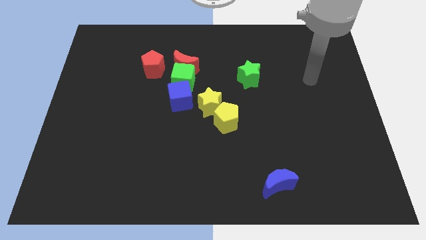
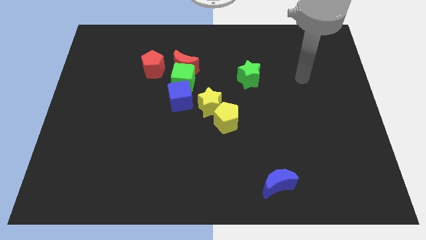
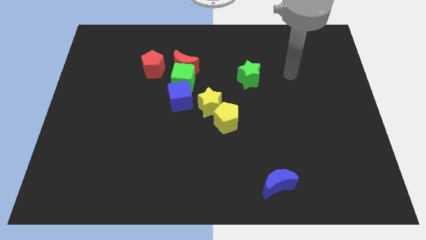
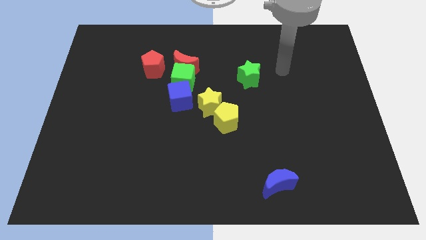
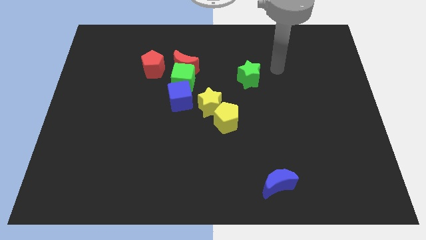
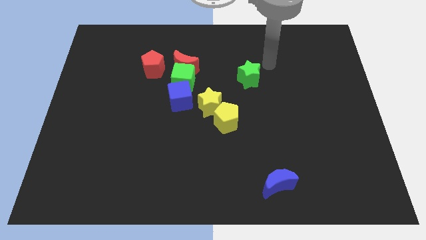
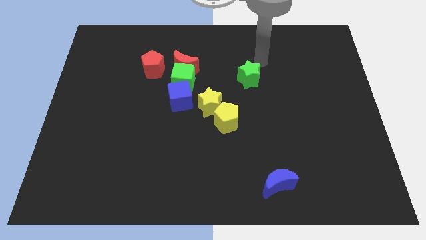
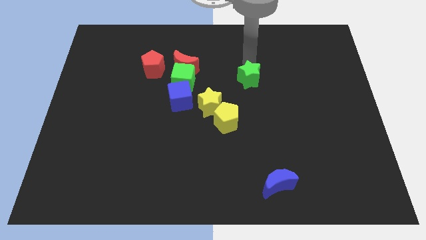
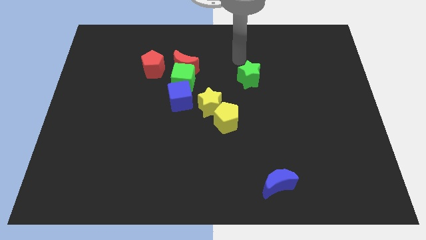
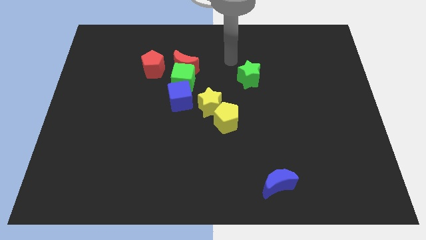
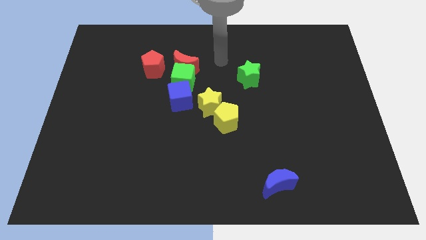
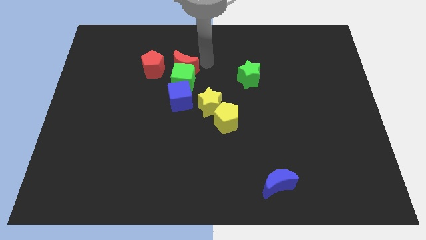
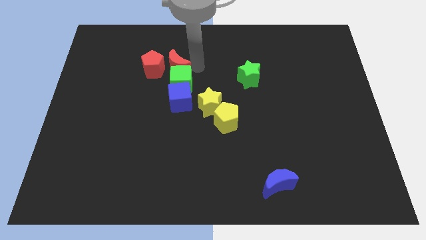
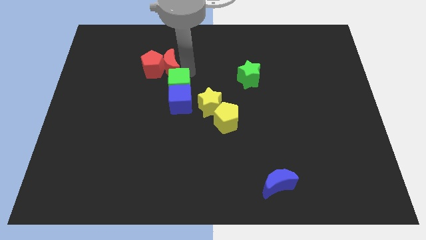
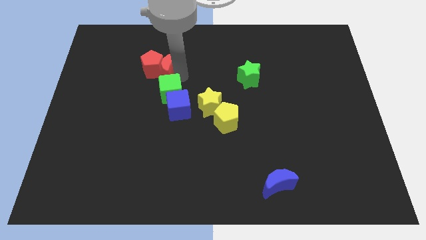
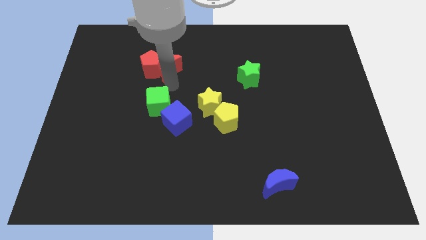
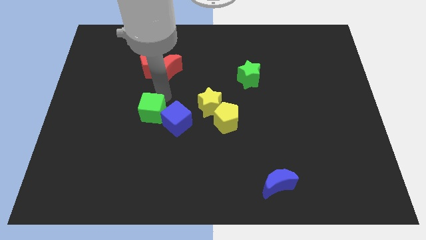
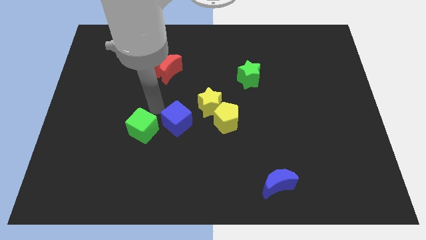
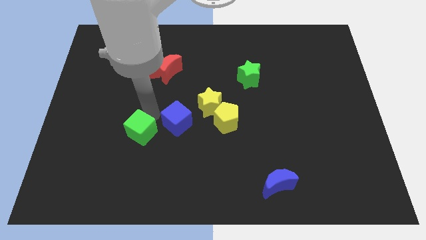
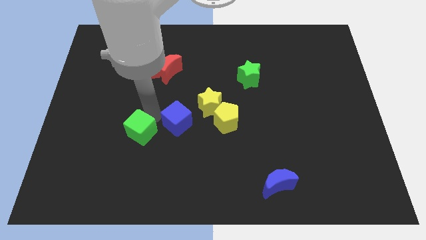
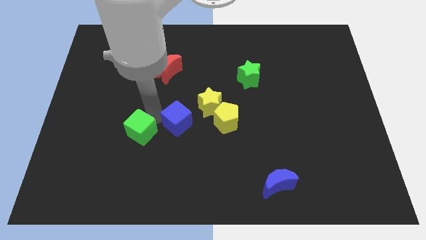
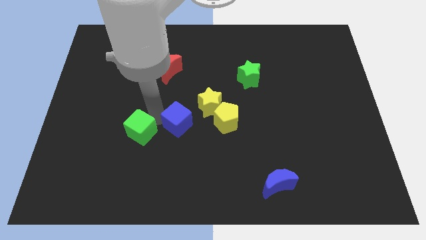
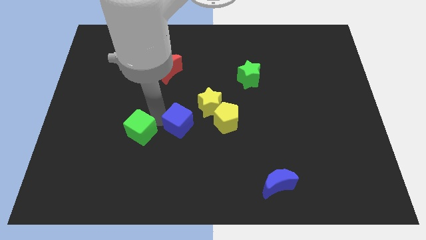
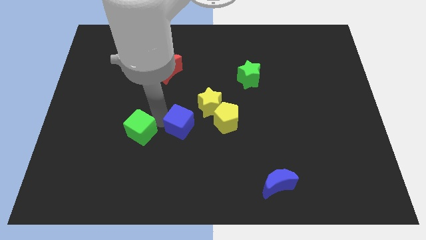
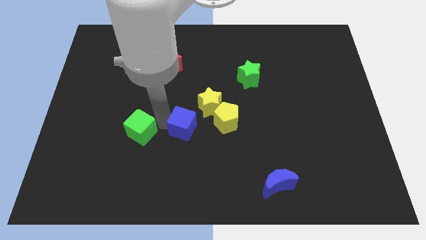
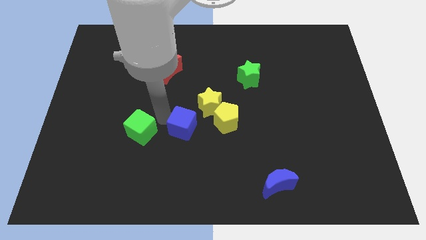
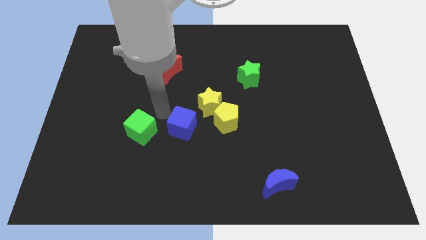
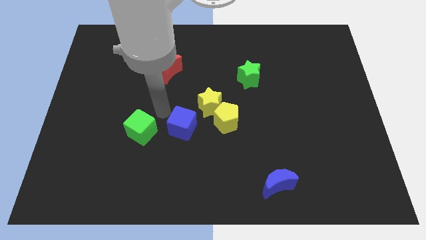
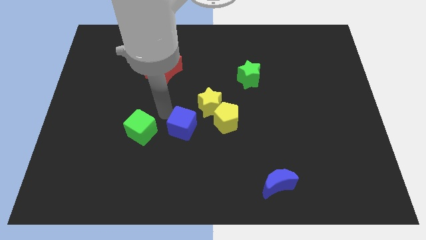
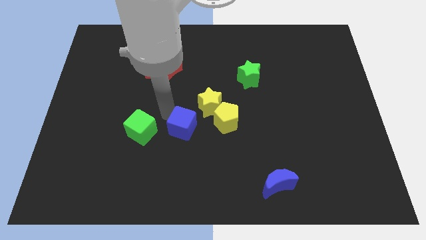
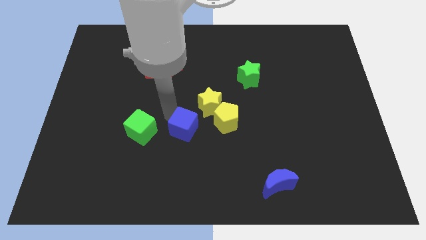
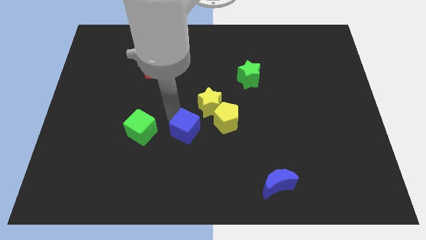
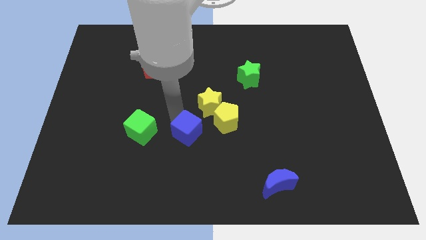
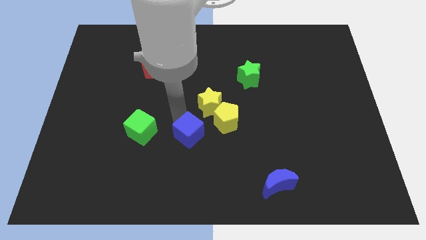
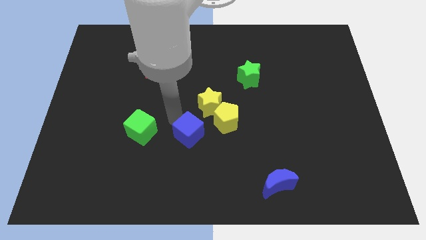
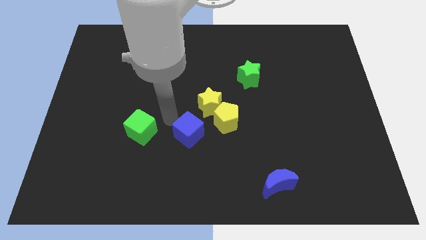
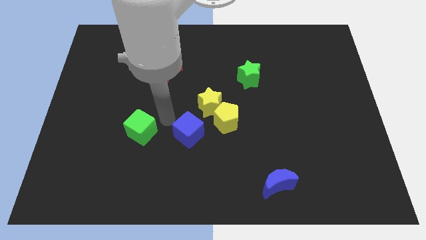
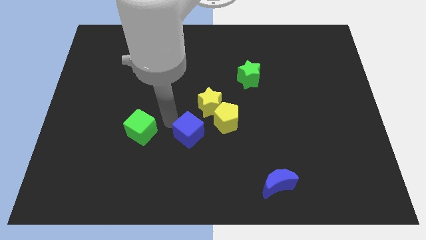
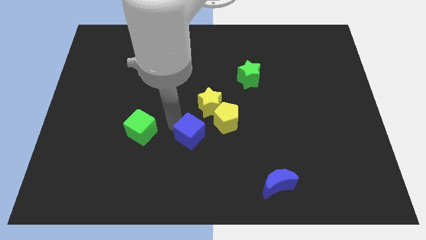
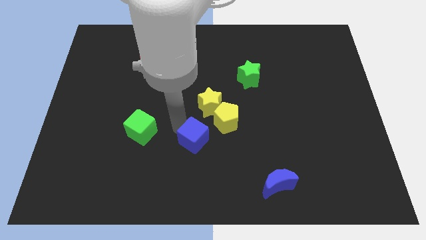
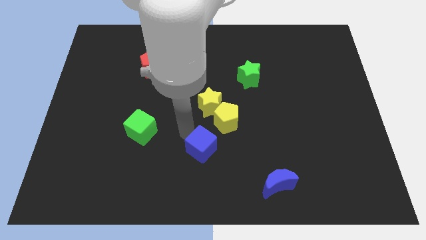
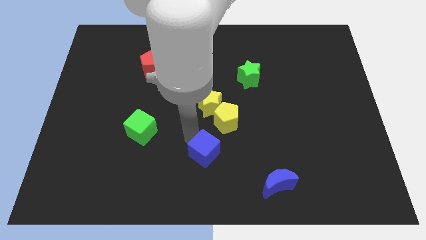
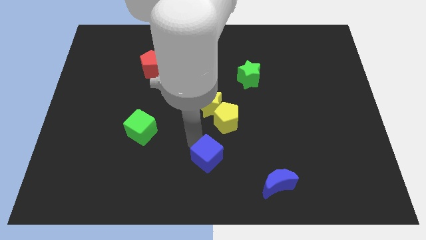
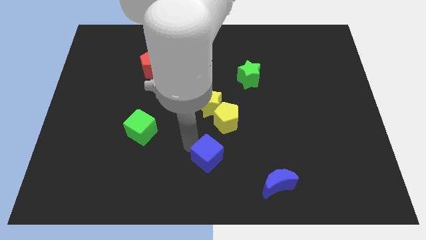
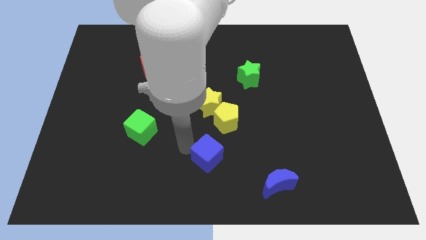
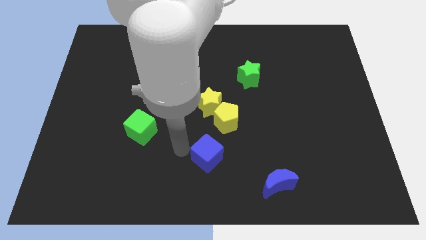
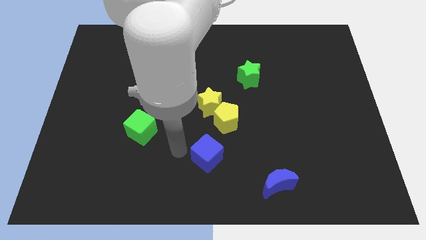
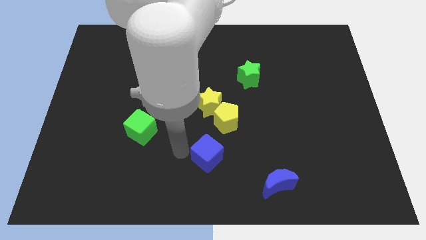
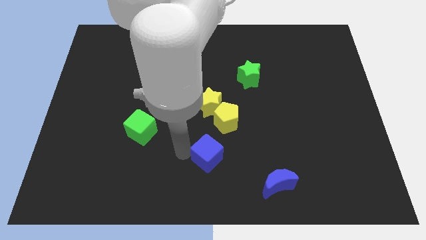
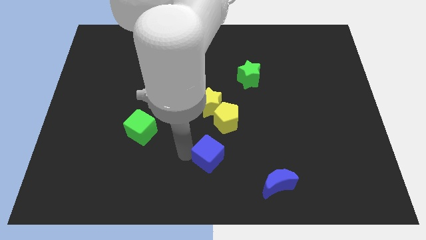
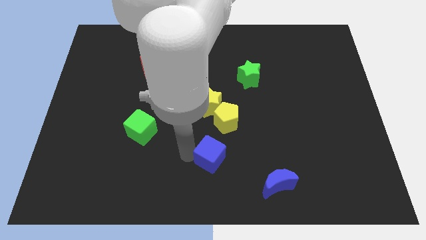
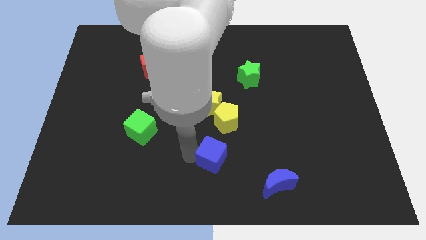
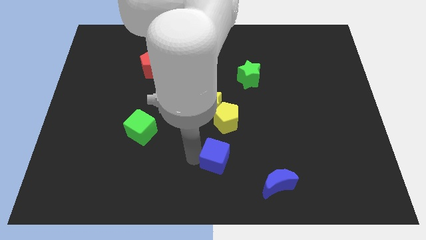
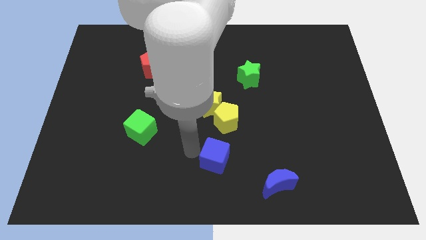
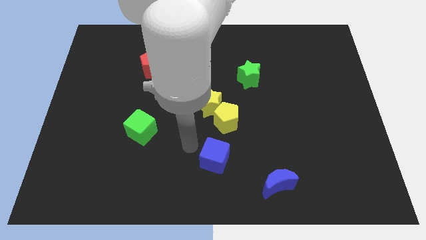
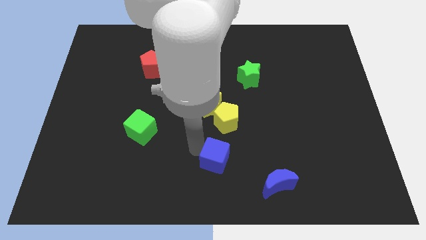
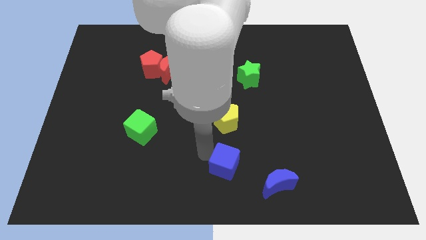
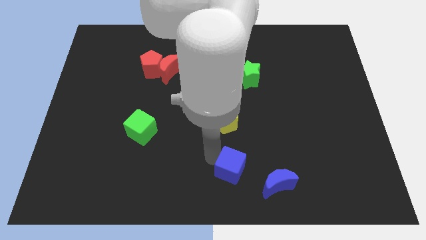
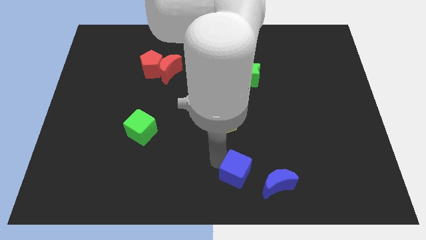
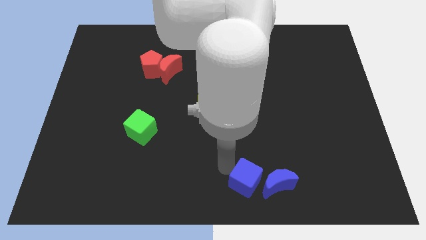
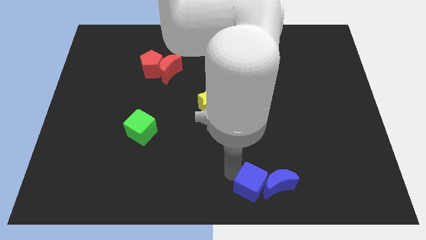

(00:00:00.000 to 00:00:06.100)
push the blue cube next to the blue moon

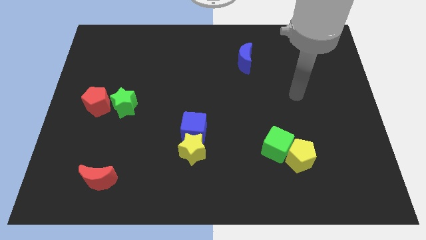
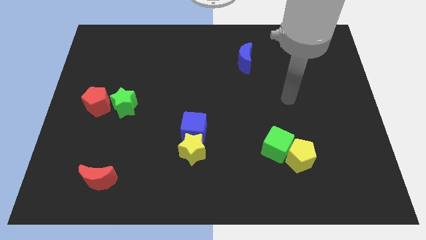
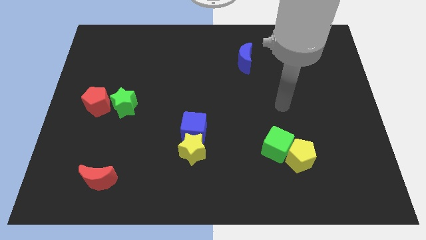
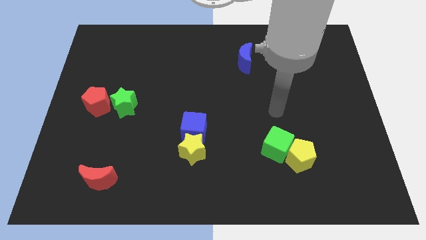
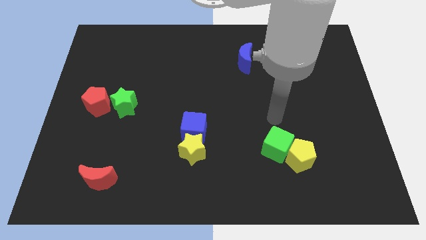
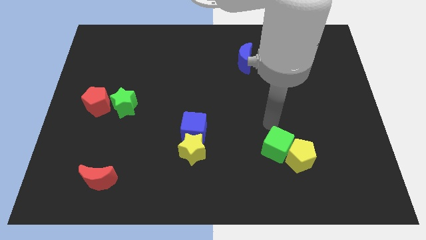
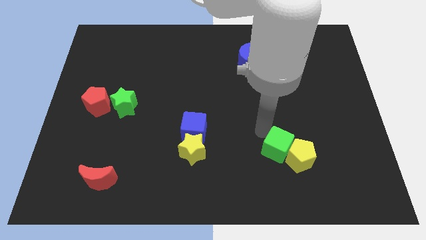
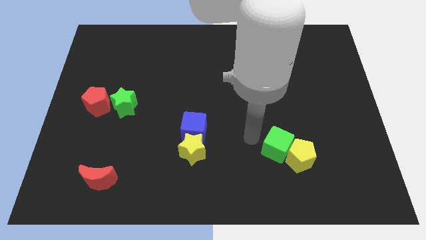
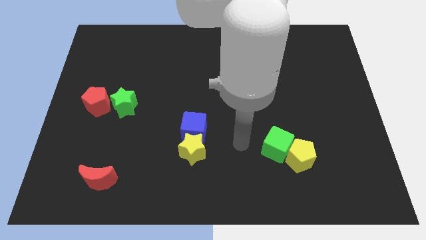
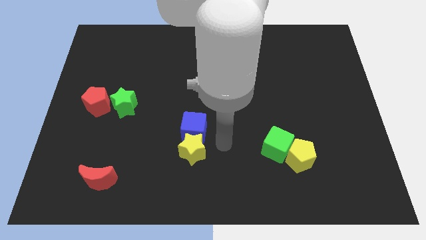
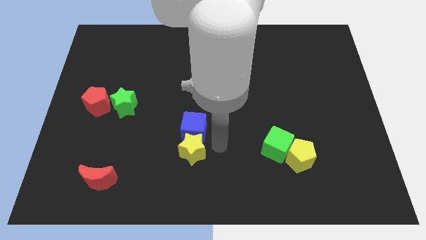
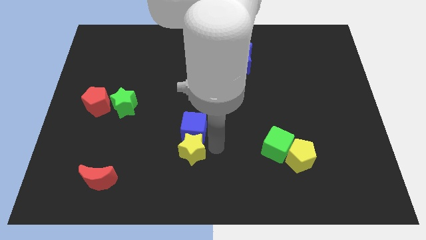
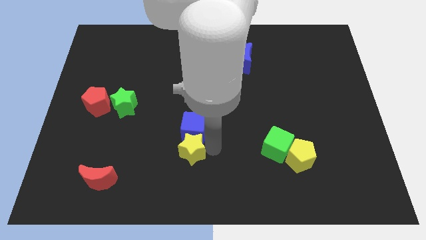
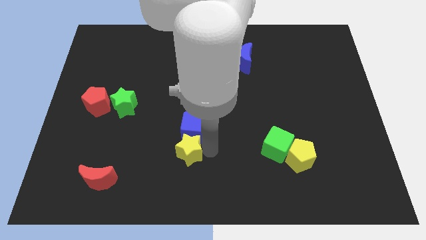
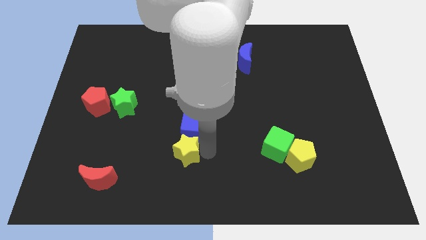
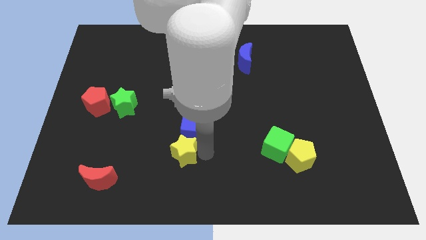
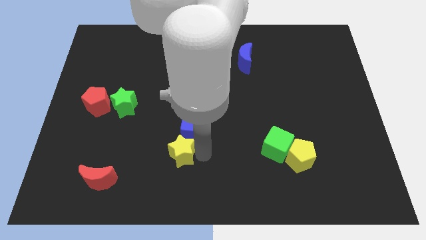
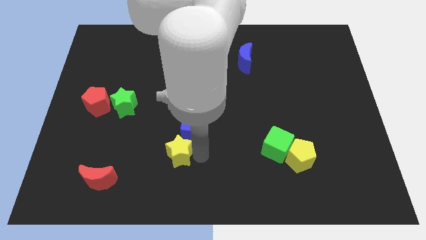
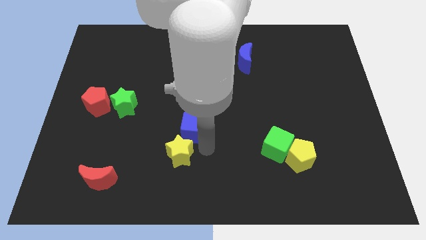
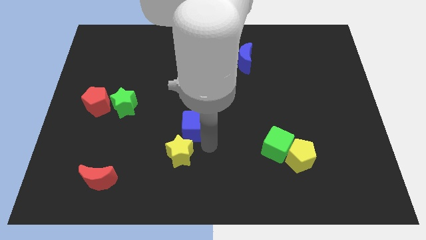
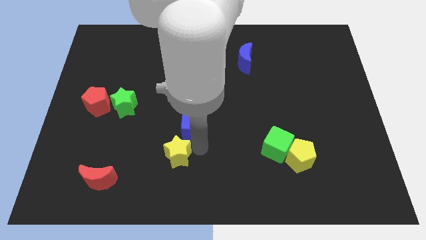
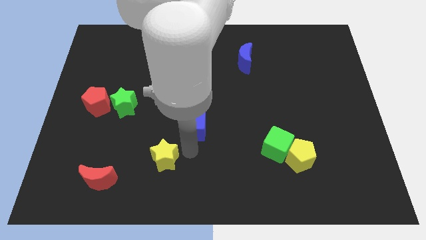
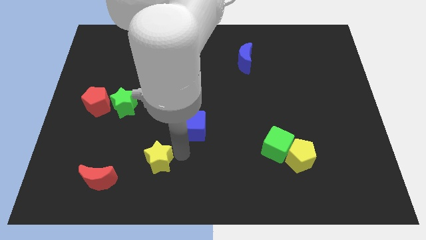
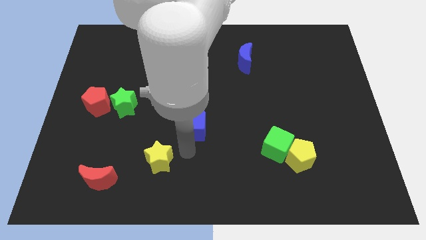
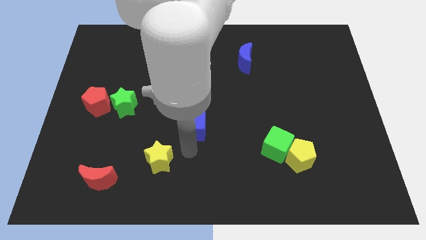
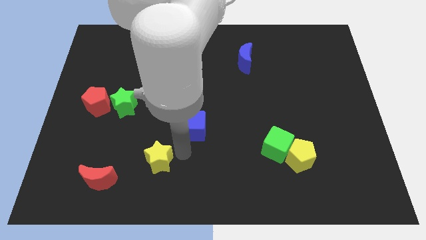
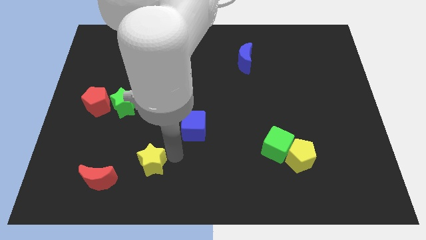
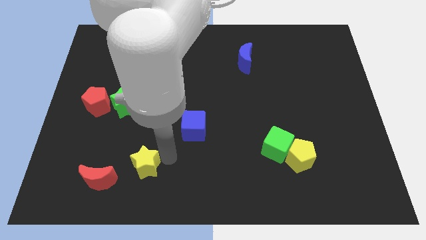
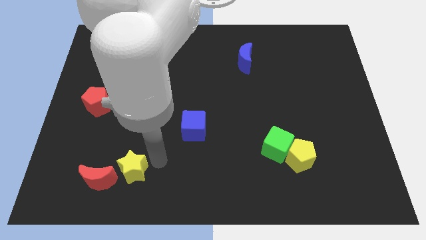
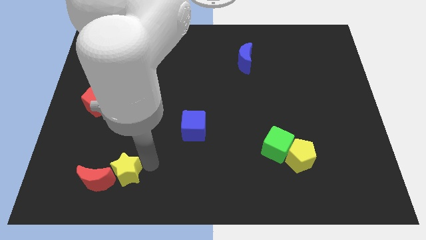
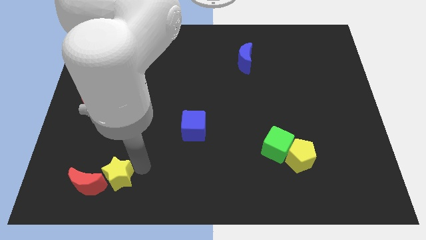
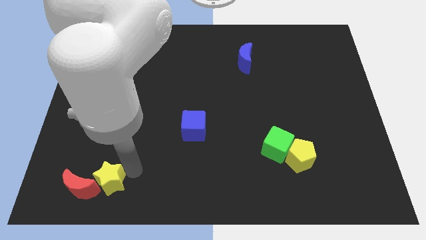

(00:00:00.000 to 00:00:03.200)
slide the yellow star next to the red moon
